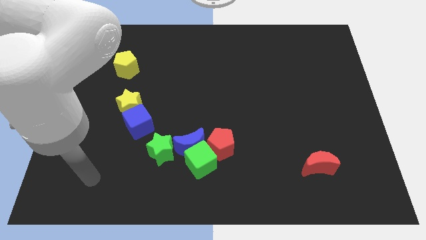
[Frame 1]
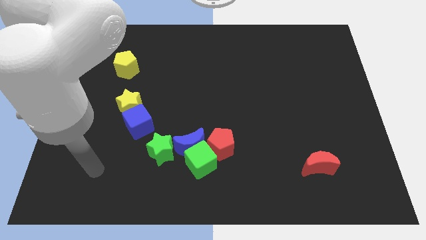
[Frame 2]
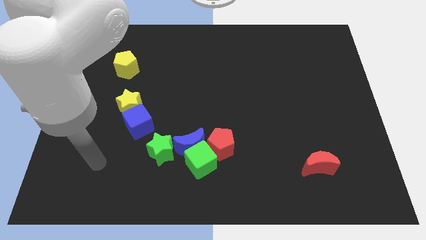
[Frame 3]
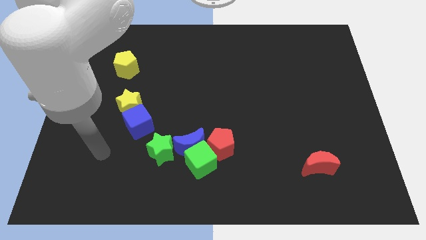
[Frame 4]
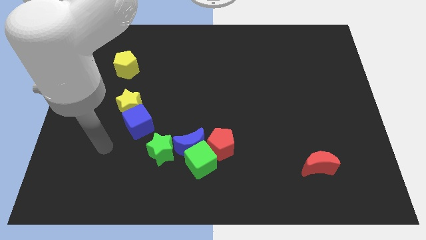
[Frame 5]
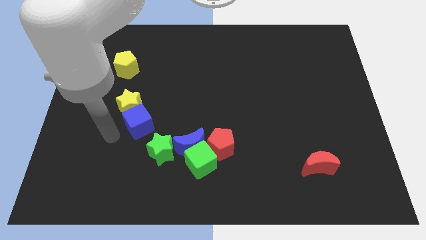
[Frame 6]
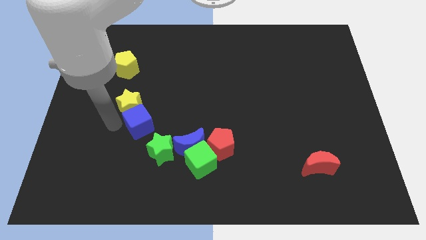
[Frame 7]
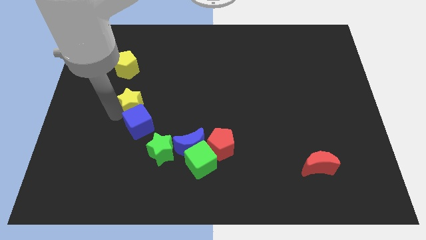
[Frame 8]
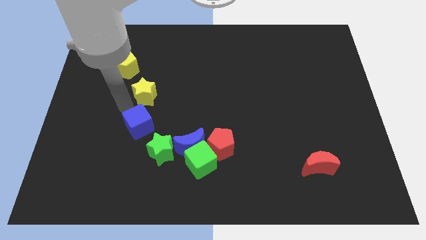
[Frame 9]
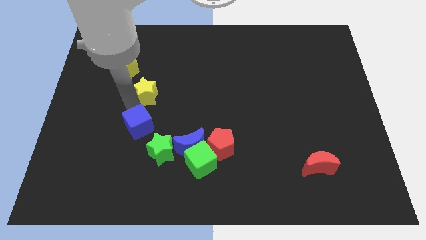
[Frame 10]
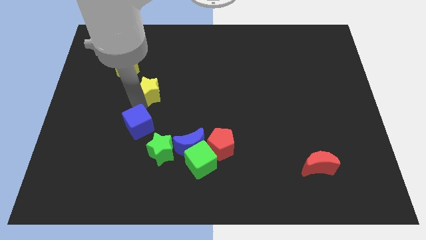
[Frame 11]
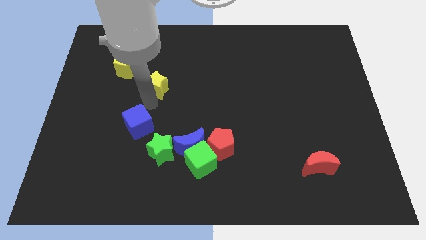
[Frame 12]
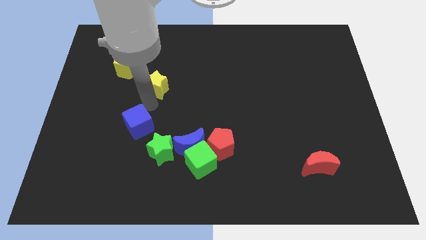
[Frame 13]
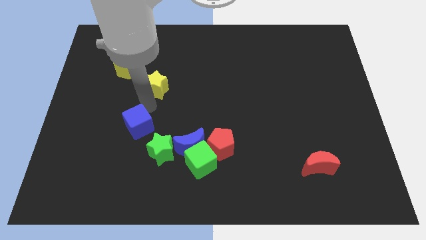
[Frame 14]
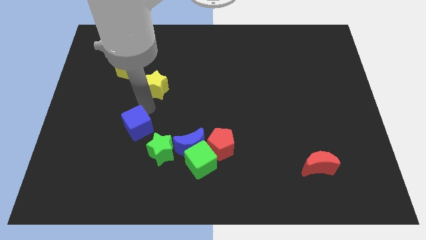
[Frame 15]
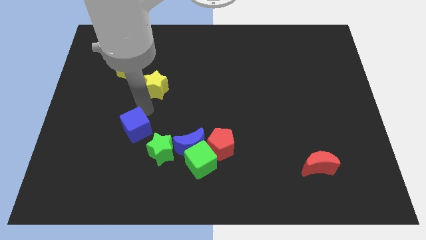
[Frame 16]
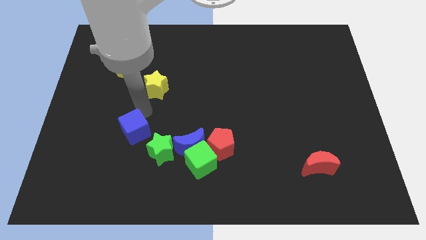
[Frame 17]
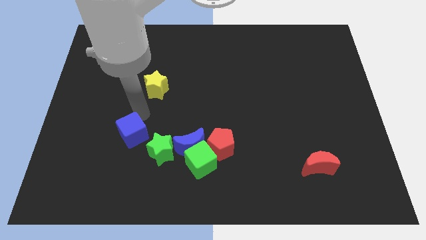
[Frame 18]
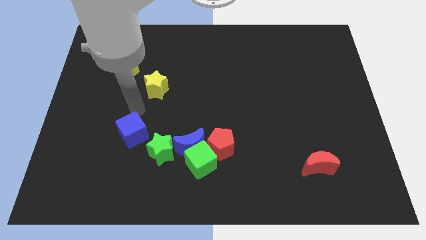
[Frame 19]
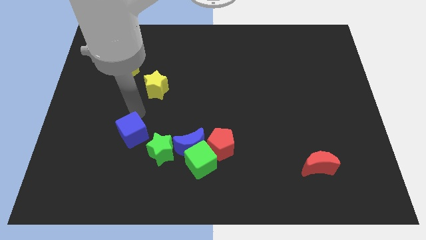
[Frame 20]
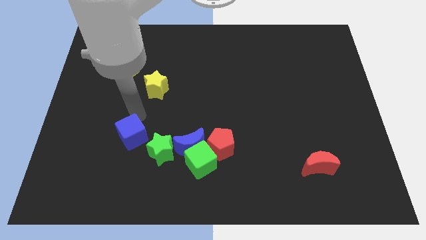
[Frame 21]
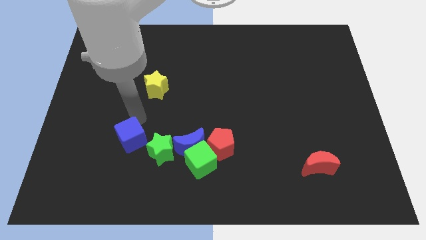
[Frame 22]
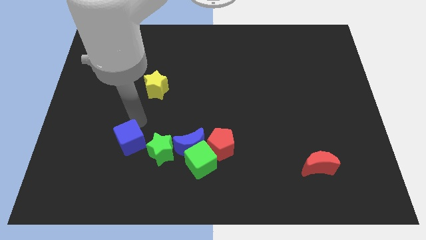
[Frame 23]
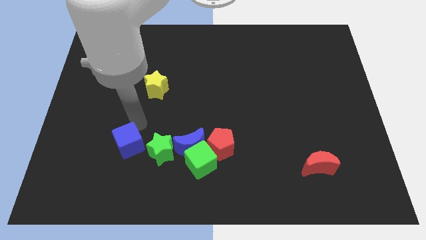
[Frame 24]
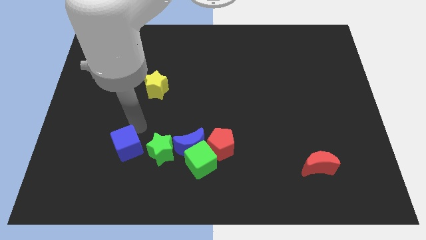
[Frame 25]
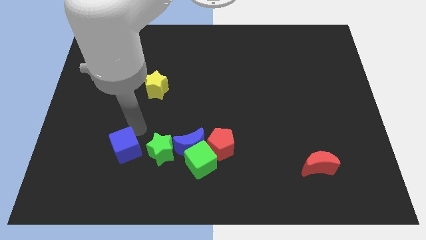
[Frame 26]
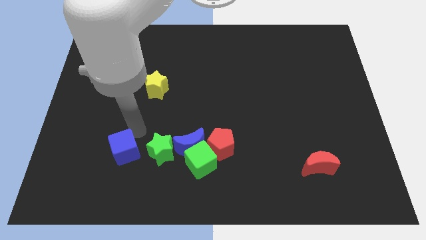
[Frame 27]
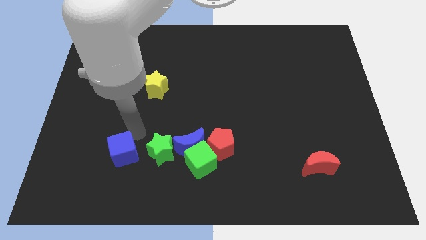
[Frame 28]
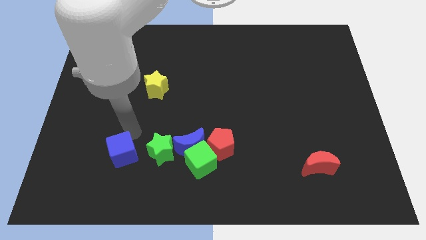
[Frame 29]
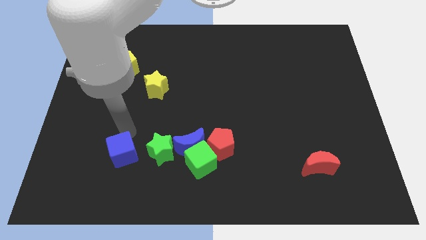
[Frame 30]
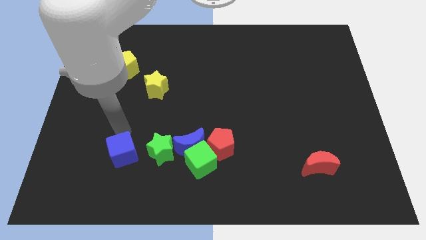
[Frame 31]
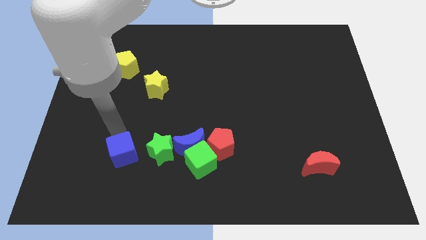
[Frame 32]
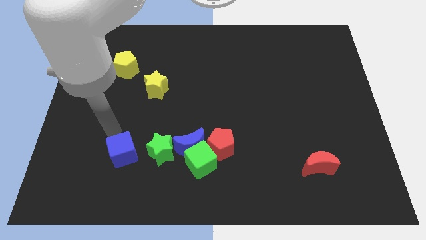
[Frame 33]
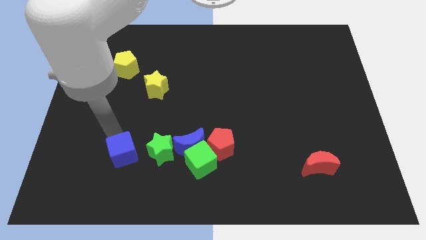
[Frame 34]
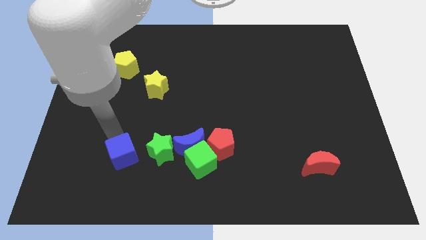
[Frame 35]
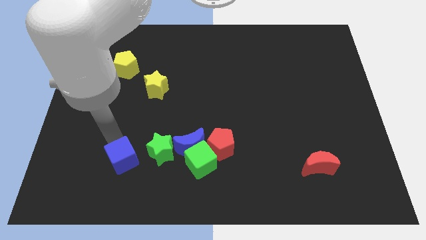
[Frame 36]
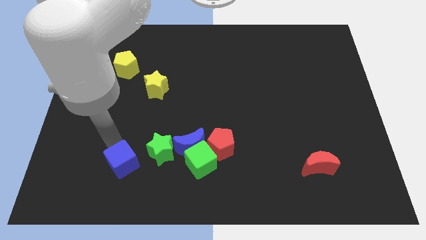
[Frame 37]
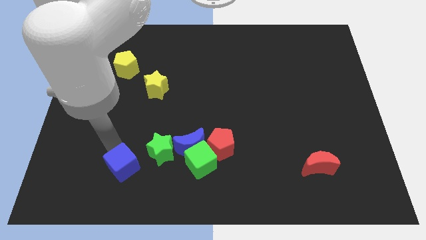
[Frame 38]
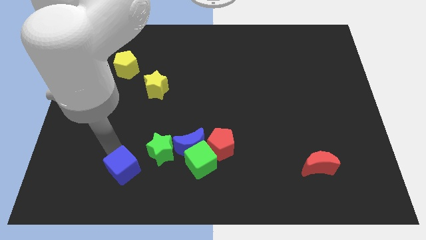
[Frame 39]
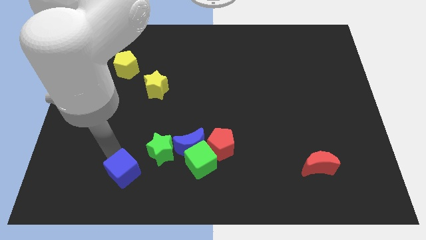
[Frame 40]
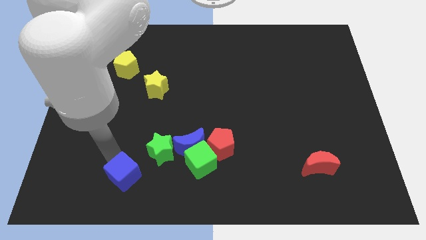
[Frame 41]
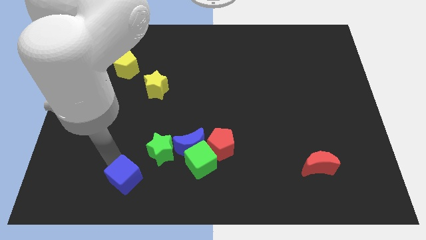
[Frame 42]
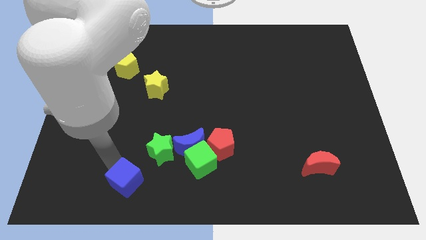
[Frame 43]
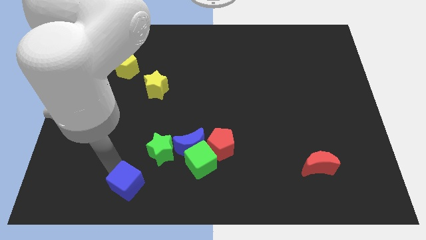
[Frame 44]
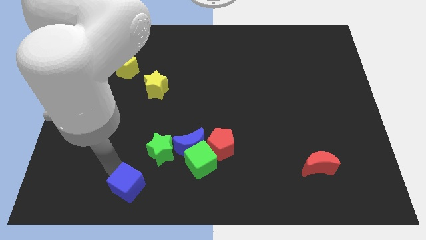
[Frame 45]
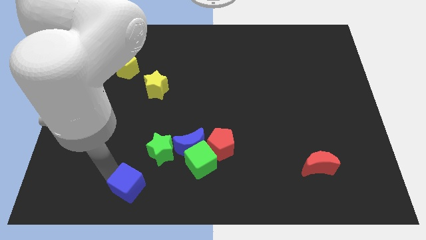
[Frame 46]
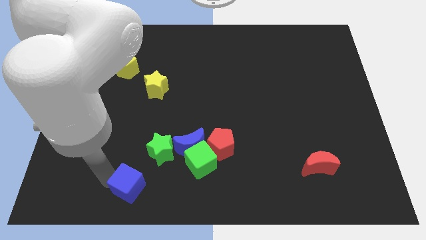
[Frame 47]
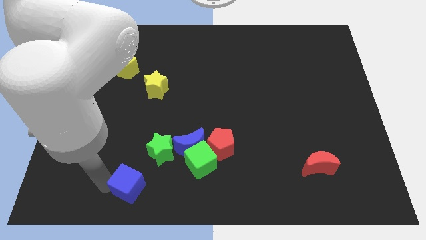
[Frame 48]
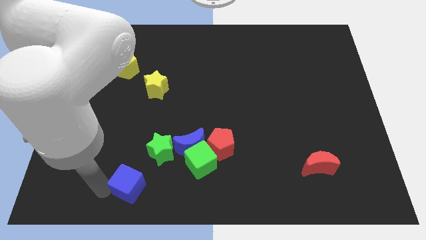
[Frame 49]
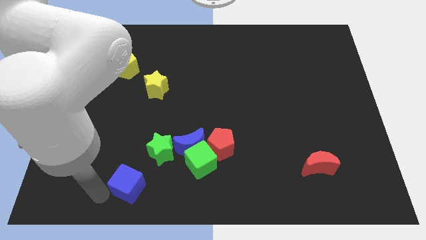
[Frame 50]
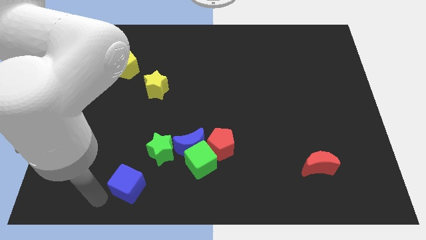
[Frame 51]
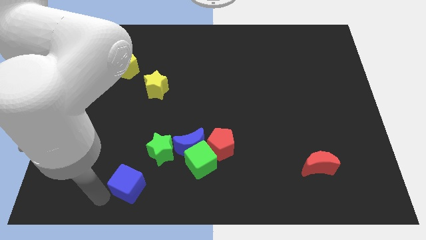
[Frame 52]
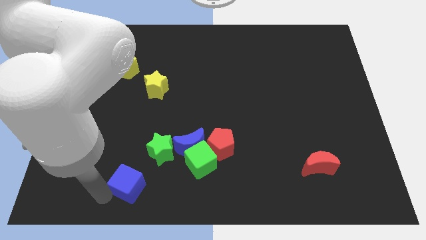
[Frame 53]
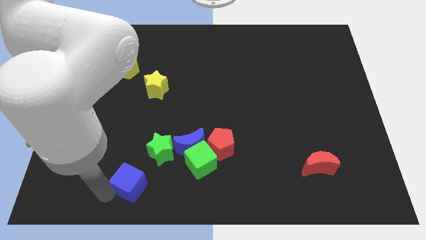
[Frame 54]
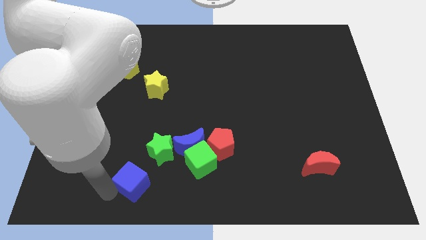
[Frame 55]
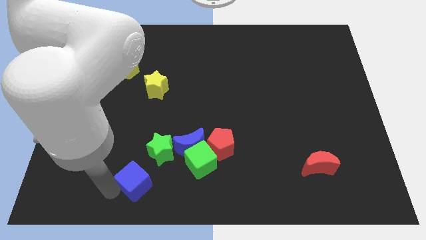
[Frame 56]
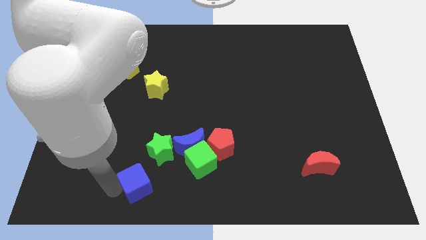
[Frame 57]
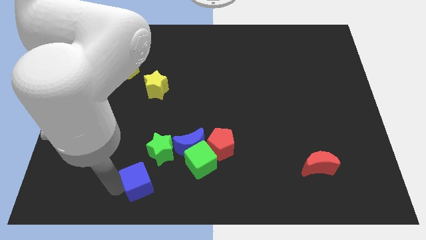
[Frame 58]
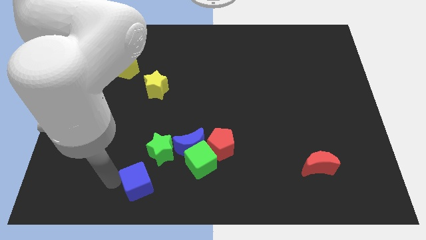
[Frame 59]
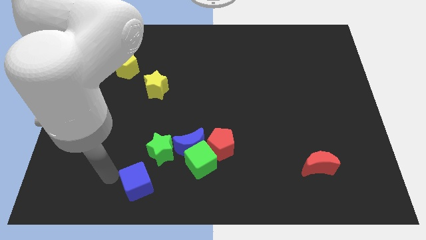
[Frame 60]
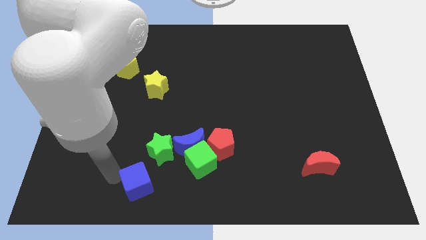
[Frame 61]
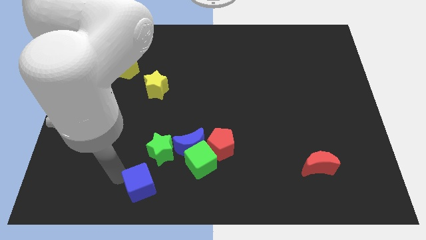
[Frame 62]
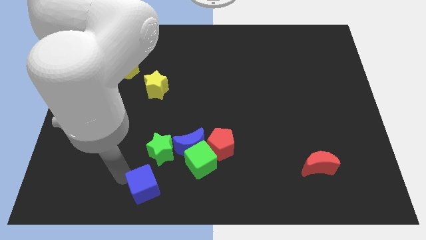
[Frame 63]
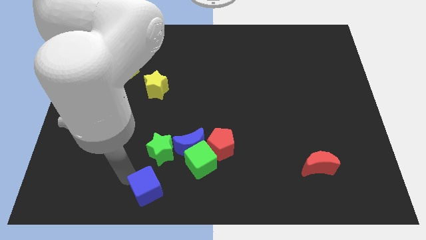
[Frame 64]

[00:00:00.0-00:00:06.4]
move the blue cube to the bottom side

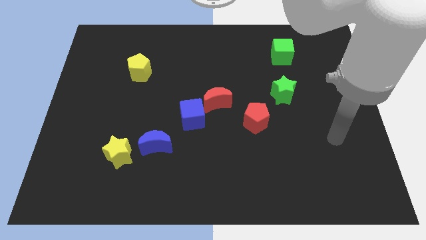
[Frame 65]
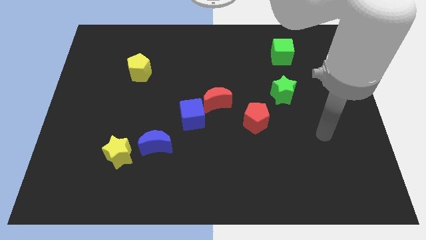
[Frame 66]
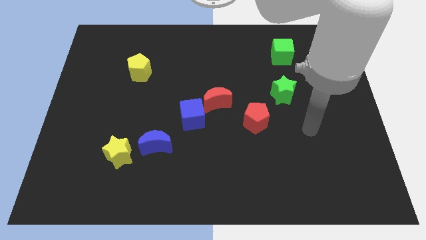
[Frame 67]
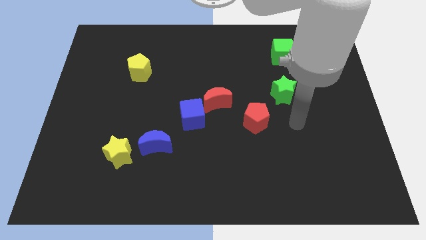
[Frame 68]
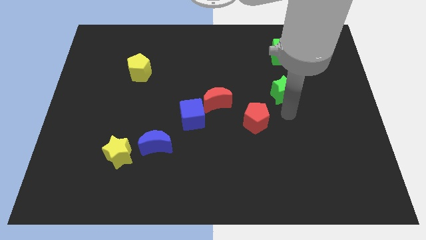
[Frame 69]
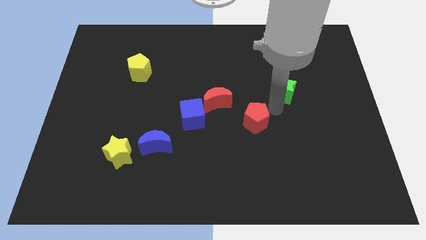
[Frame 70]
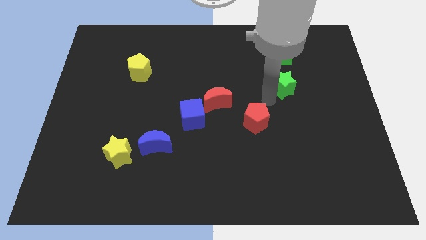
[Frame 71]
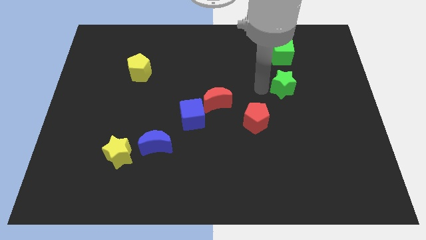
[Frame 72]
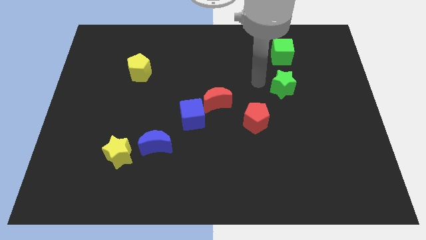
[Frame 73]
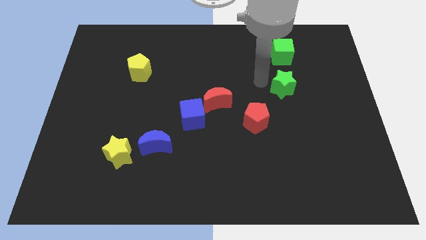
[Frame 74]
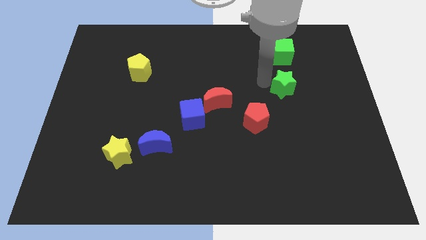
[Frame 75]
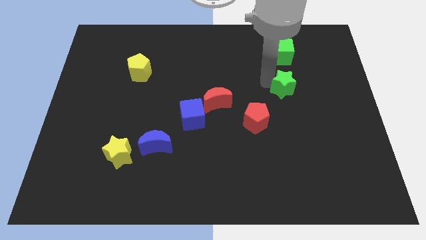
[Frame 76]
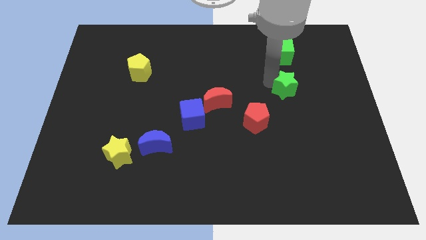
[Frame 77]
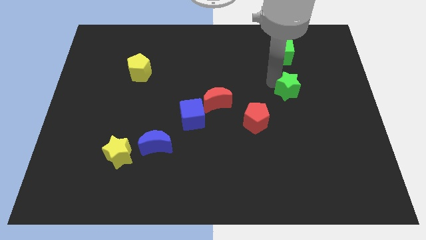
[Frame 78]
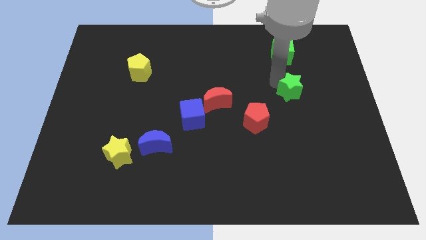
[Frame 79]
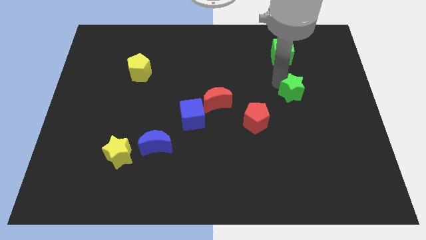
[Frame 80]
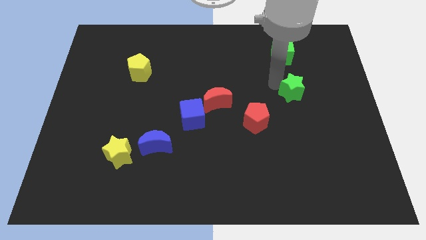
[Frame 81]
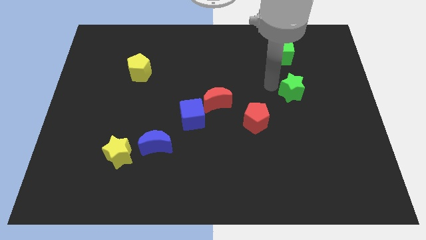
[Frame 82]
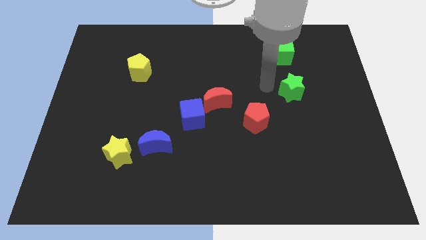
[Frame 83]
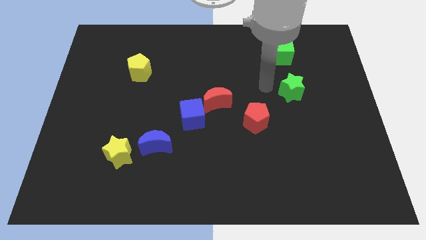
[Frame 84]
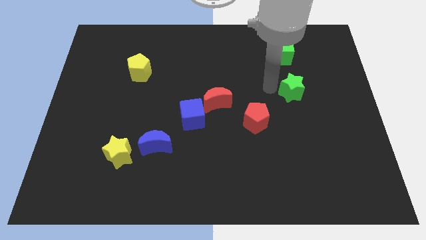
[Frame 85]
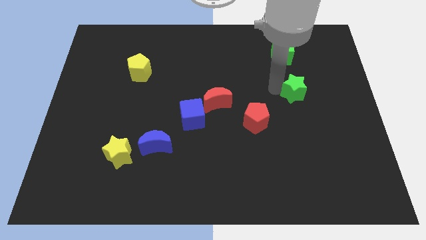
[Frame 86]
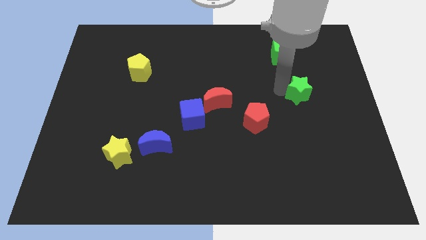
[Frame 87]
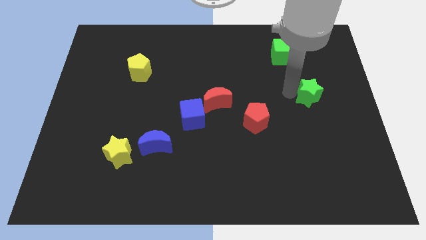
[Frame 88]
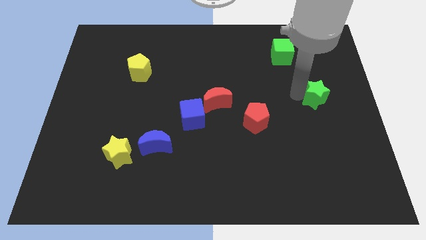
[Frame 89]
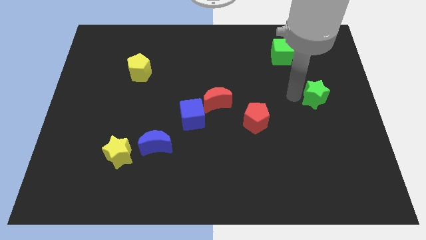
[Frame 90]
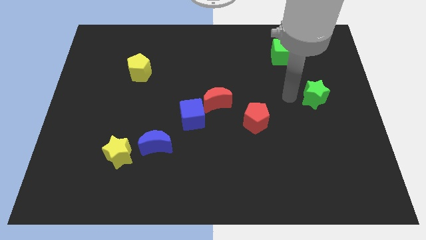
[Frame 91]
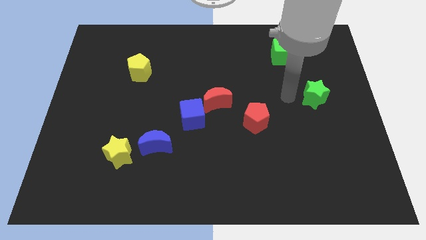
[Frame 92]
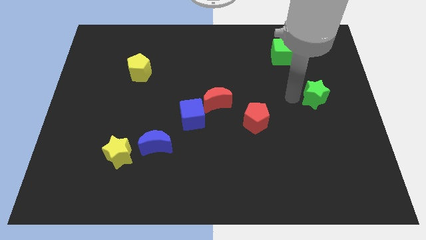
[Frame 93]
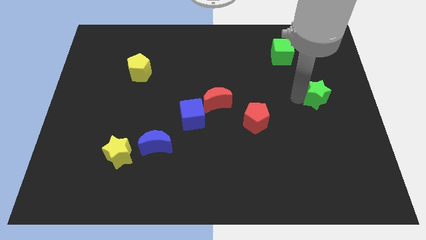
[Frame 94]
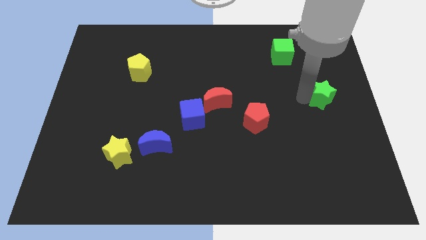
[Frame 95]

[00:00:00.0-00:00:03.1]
push the green star to the right side of the board
